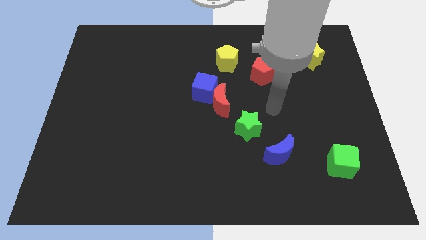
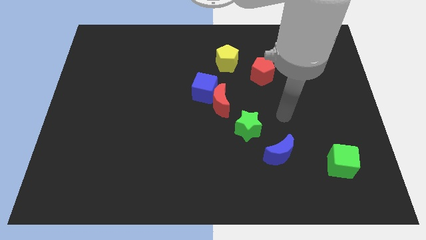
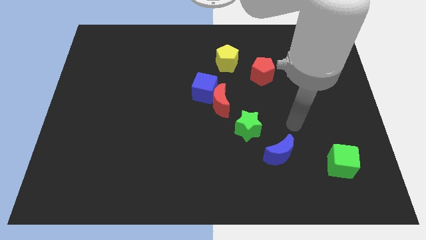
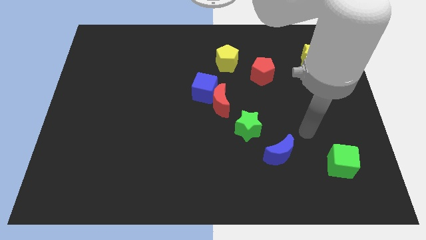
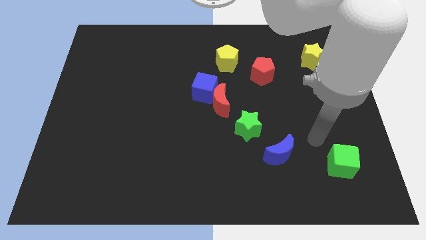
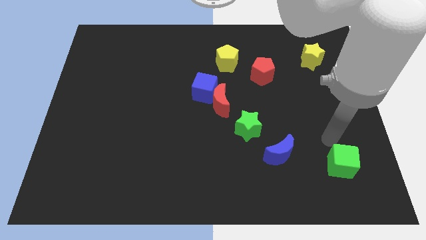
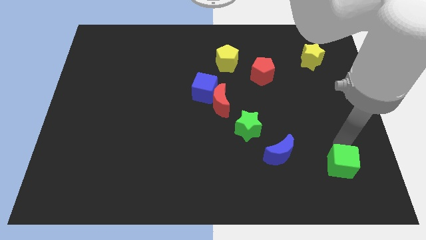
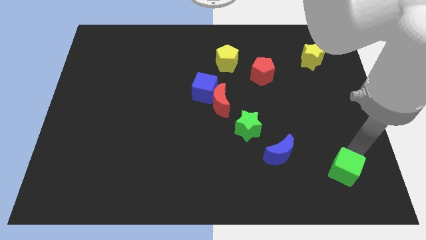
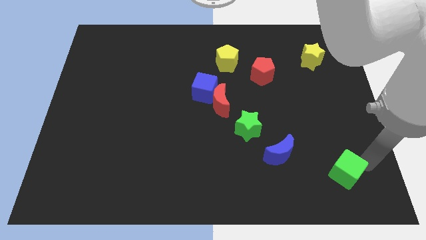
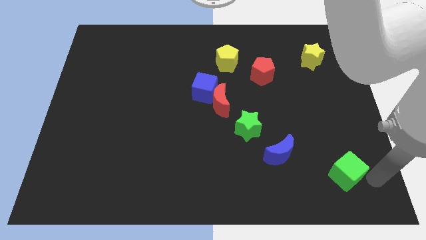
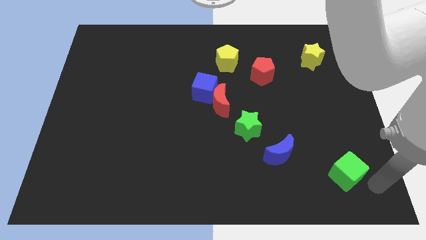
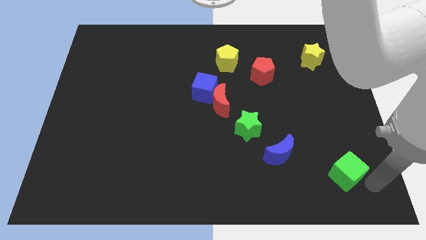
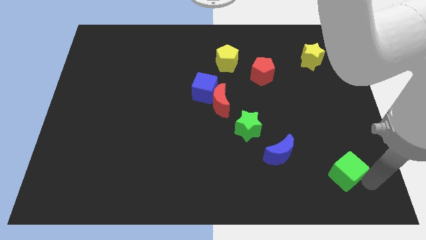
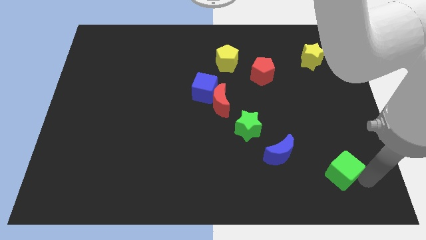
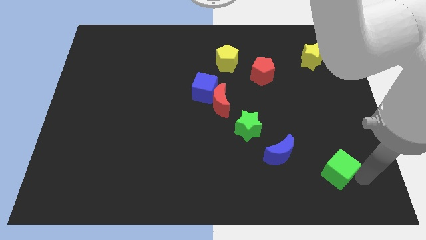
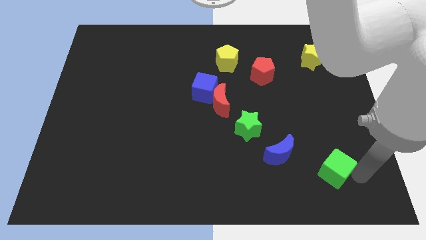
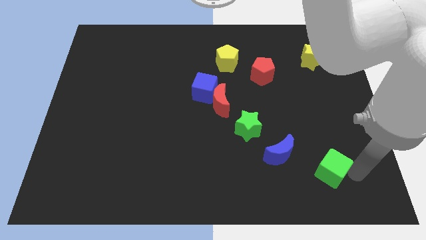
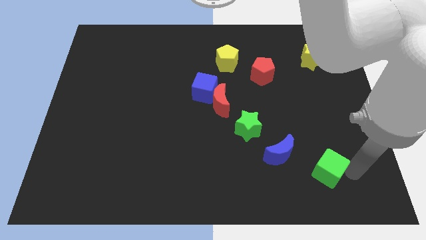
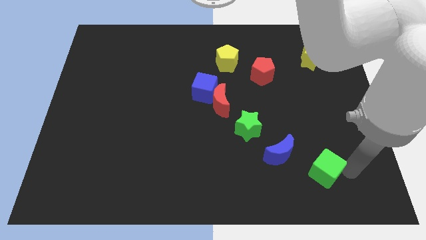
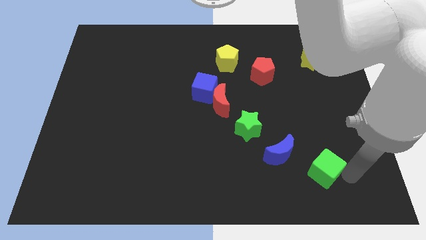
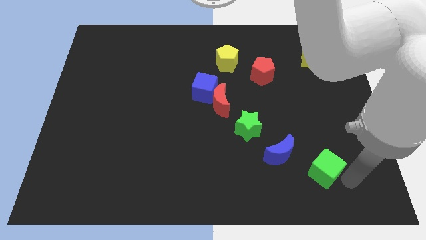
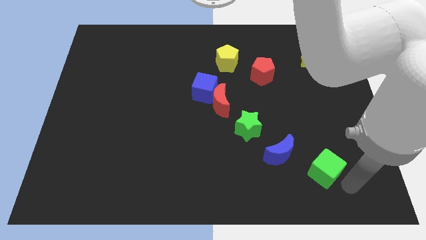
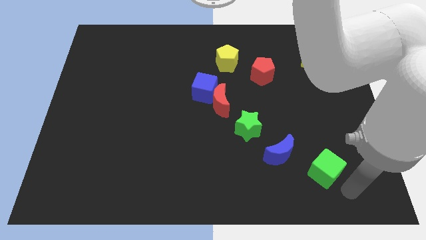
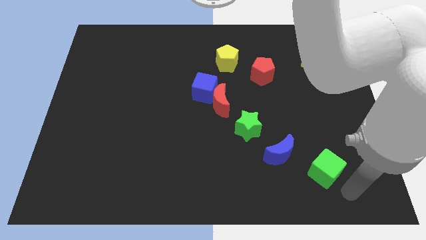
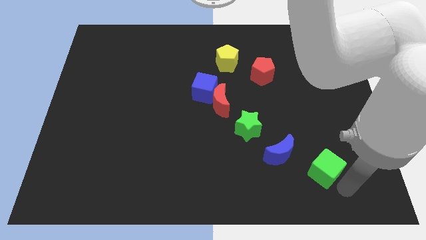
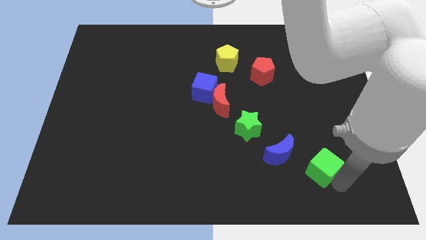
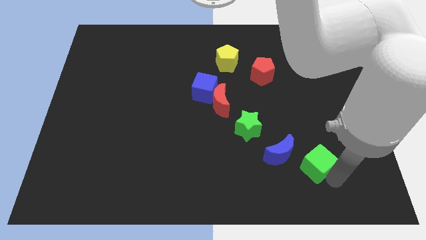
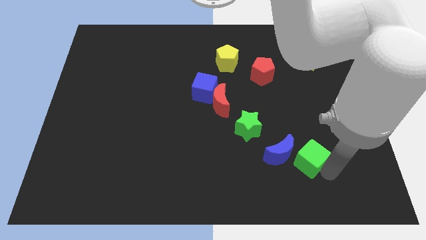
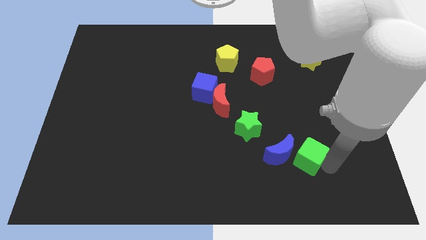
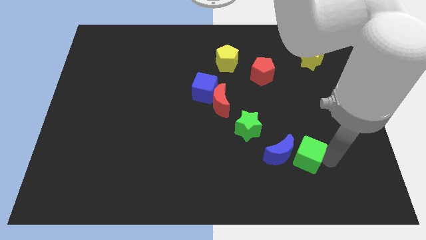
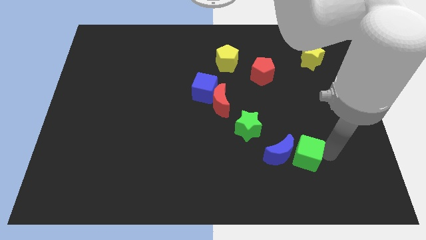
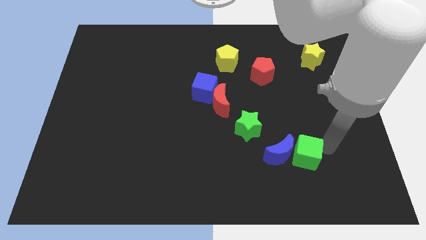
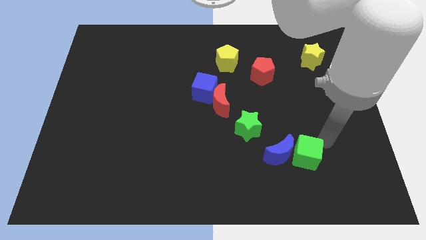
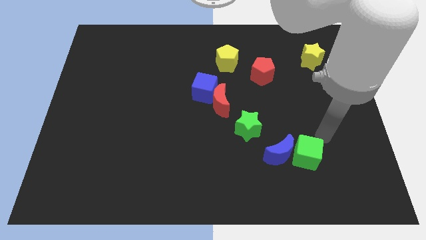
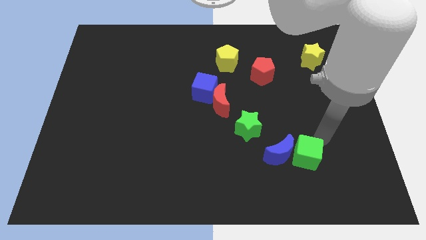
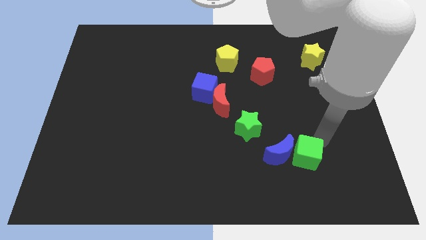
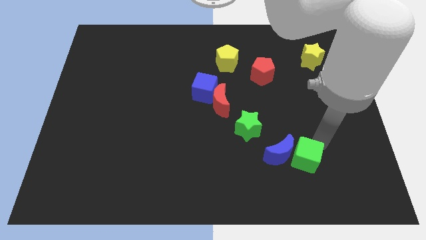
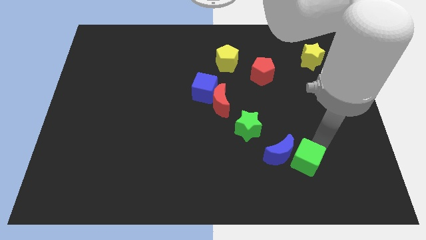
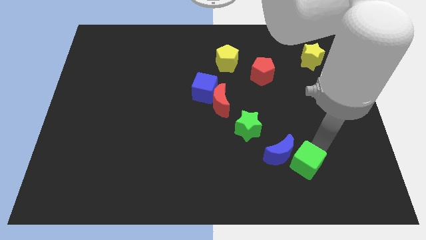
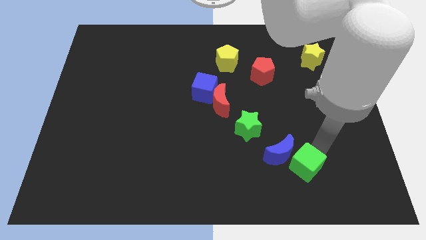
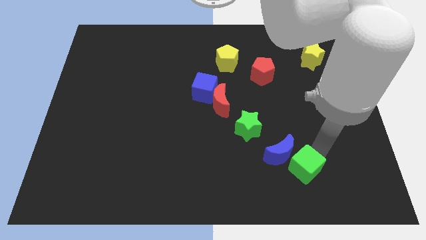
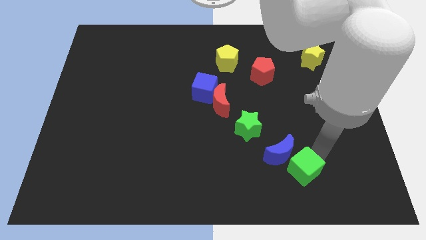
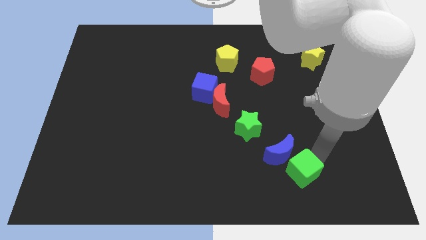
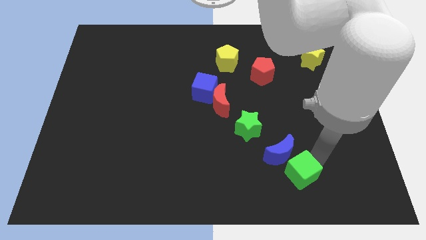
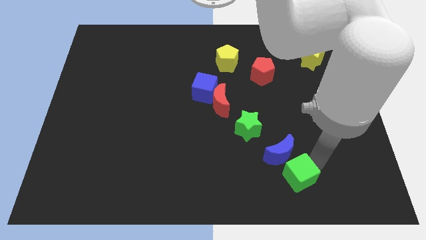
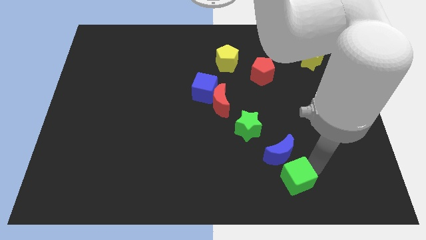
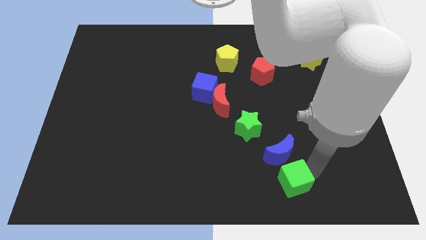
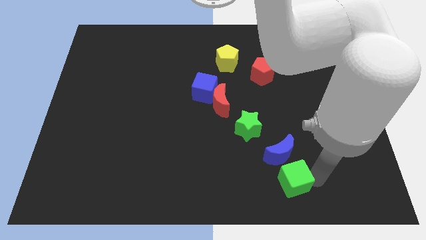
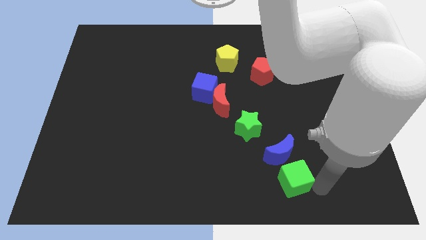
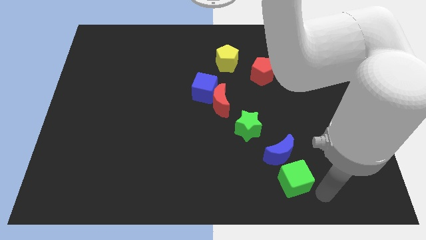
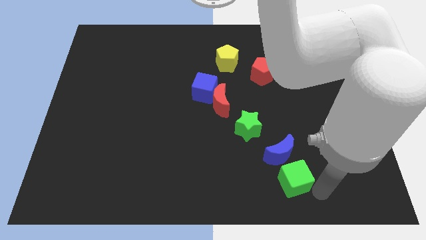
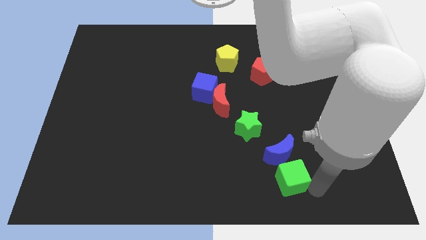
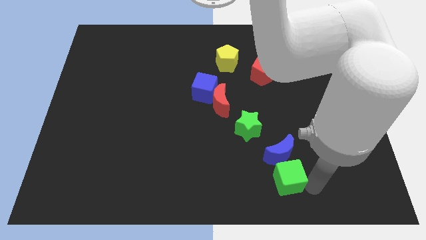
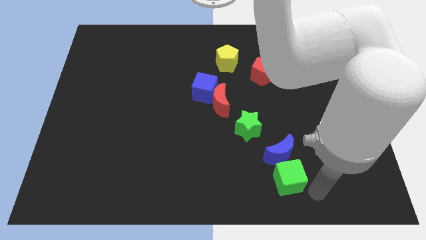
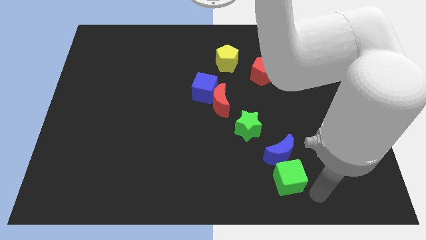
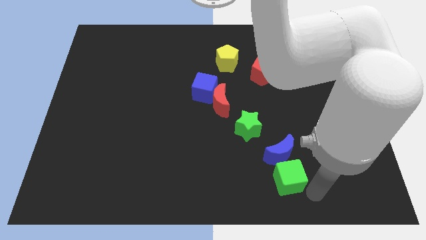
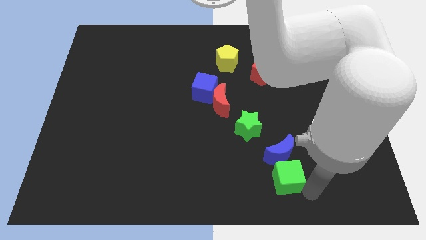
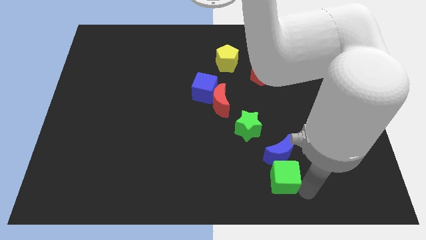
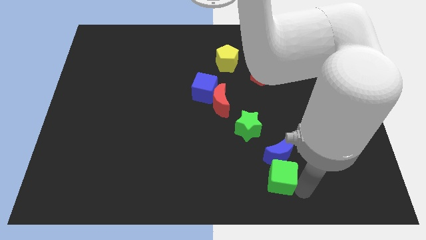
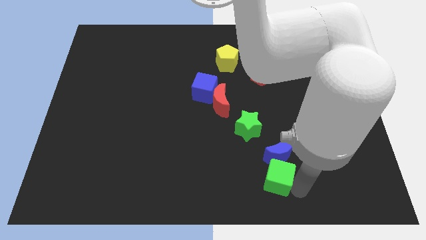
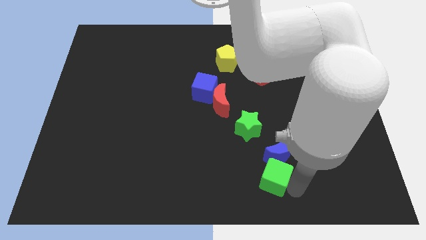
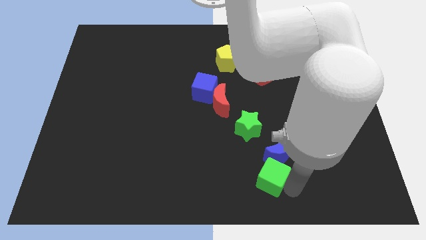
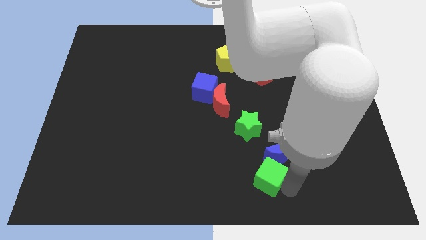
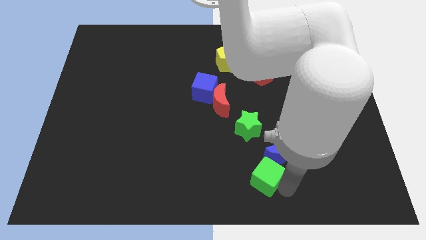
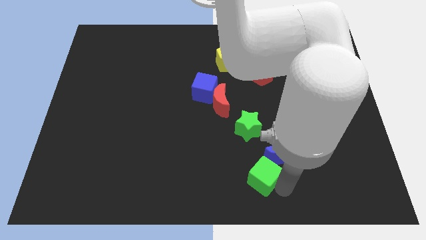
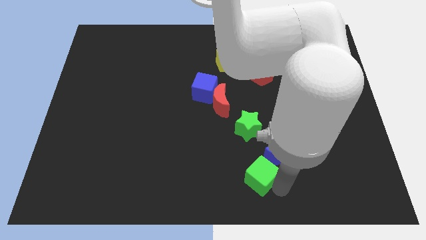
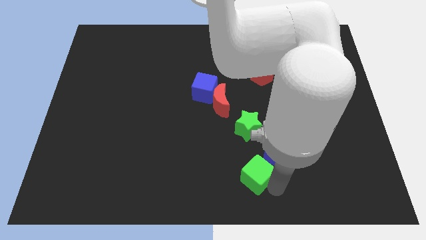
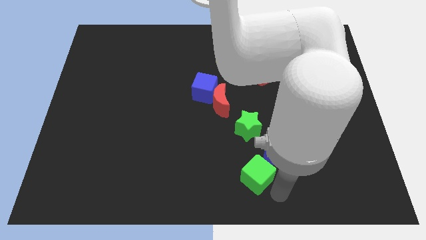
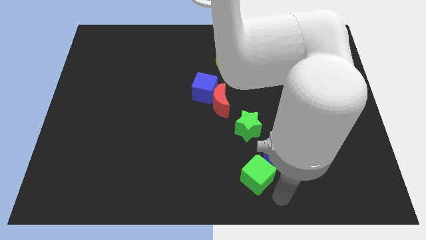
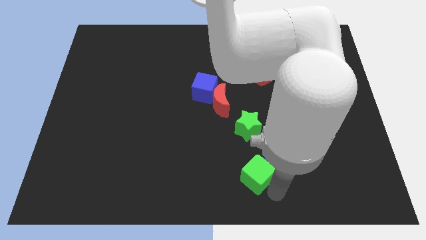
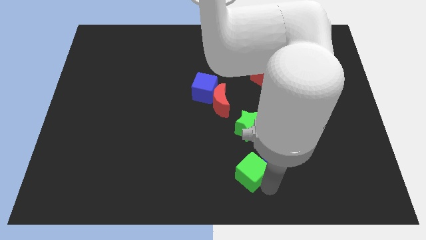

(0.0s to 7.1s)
move the green cube just left of the blue moon
